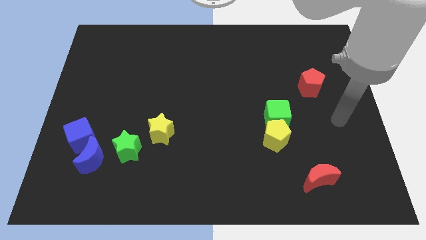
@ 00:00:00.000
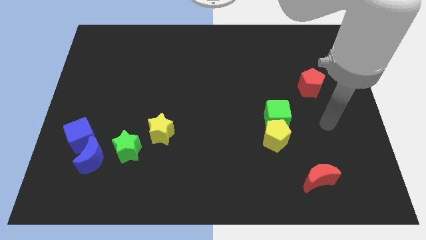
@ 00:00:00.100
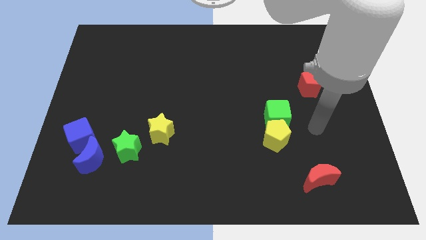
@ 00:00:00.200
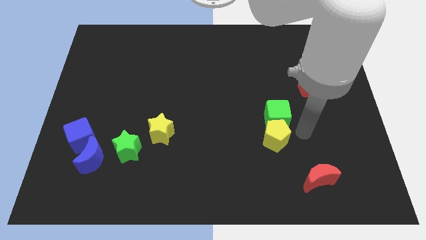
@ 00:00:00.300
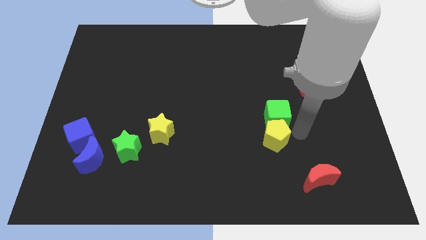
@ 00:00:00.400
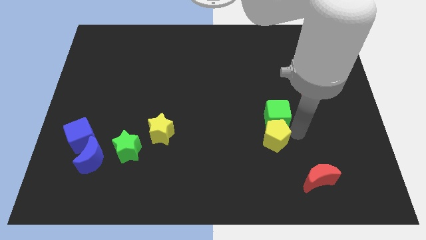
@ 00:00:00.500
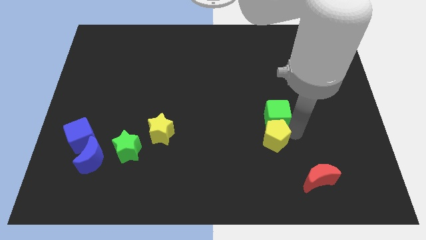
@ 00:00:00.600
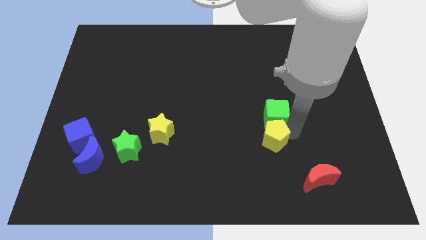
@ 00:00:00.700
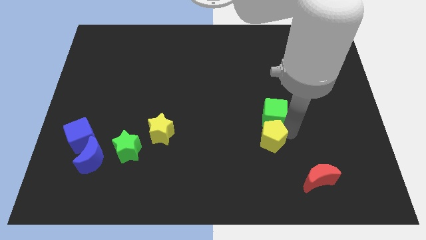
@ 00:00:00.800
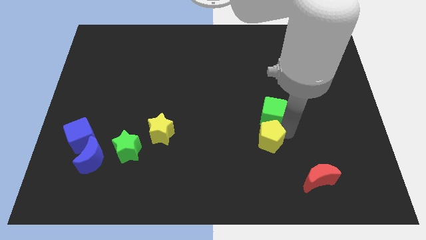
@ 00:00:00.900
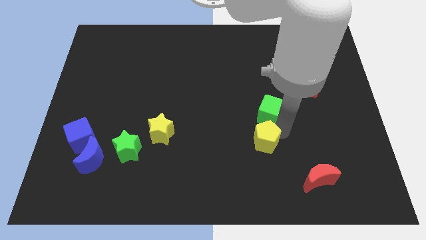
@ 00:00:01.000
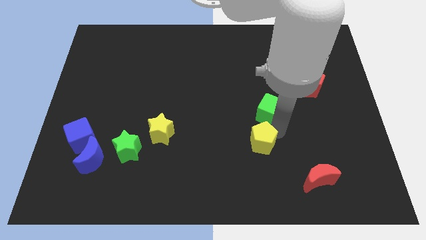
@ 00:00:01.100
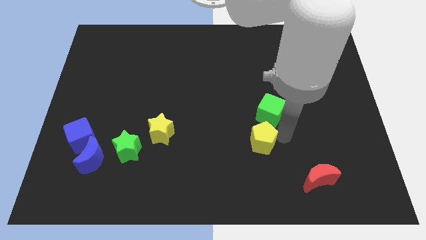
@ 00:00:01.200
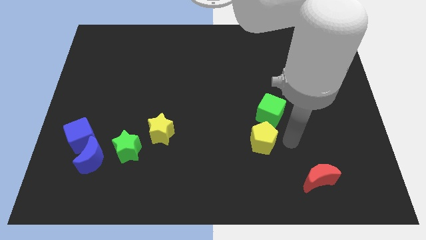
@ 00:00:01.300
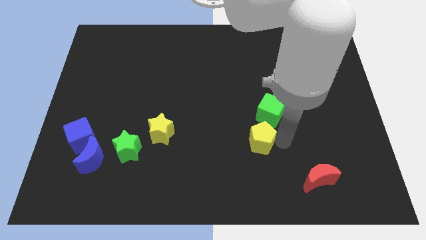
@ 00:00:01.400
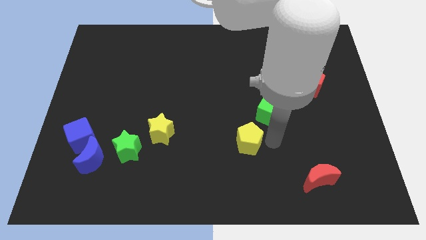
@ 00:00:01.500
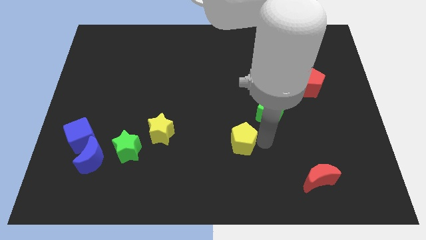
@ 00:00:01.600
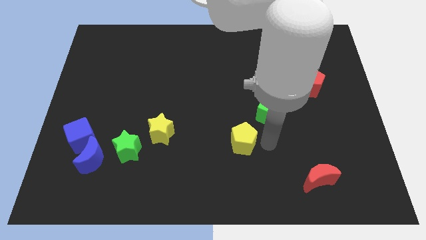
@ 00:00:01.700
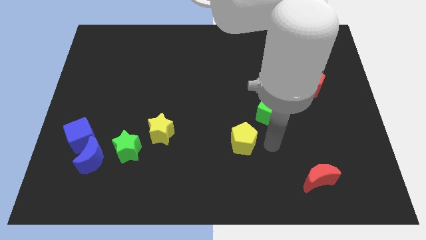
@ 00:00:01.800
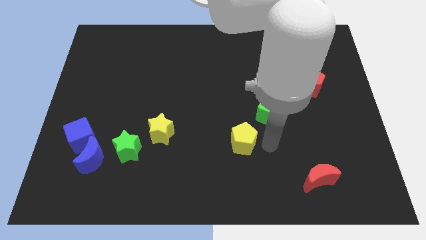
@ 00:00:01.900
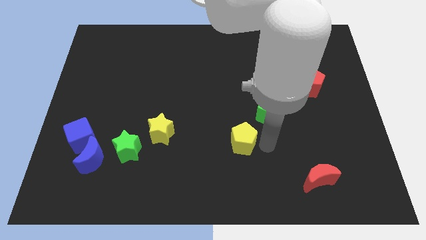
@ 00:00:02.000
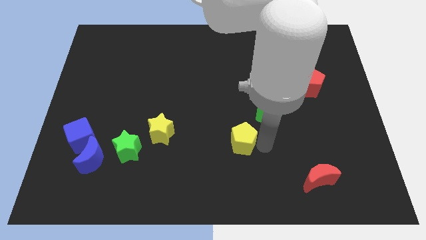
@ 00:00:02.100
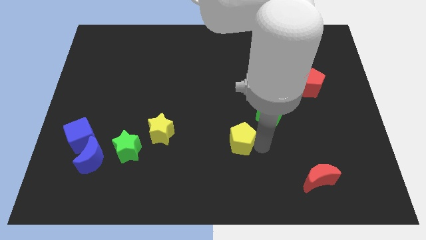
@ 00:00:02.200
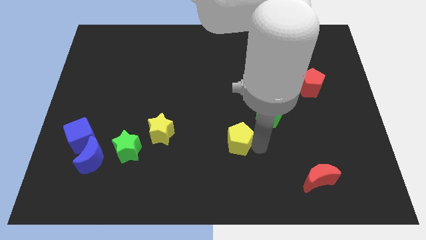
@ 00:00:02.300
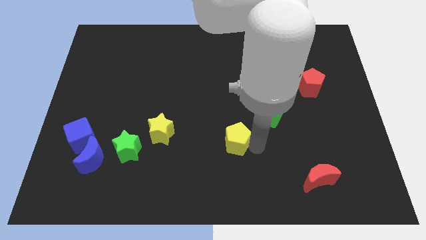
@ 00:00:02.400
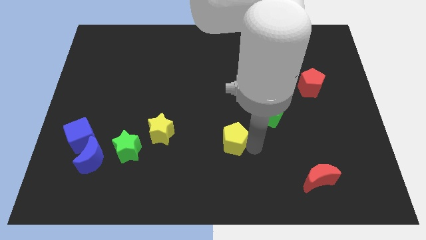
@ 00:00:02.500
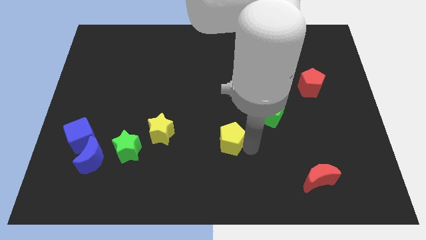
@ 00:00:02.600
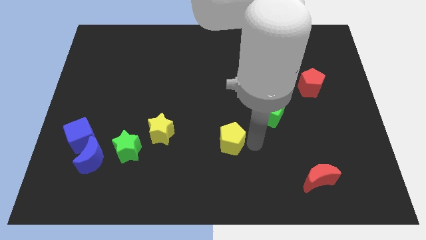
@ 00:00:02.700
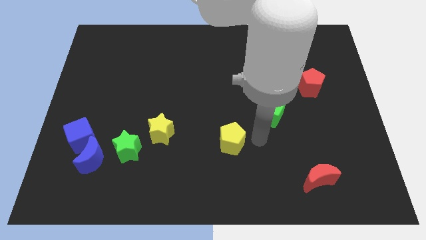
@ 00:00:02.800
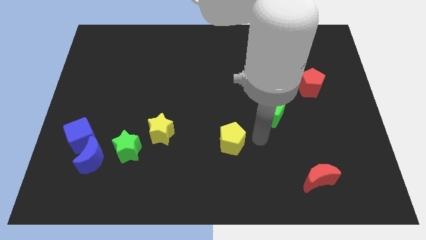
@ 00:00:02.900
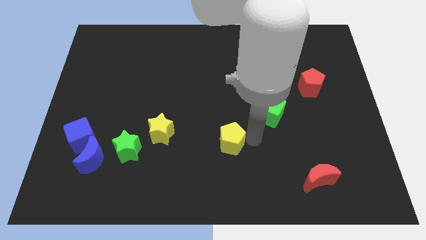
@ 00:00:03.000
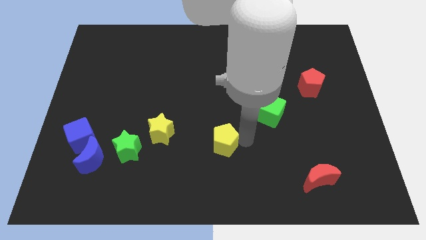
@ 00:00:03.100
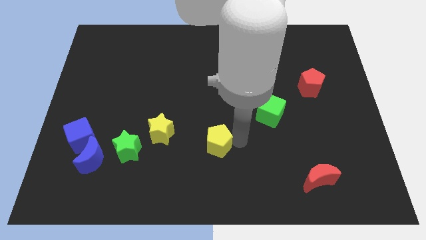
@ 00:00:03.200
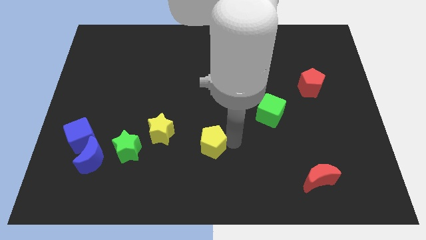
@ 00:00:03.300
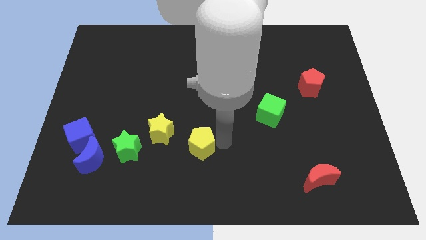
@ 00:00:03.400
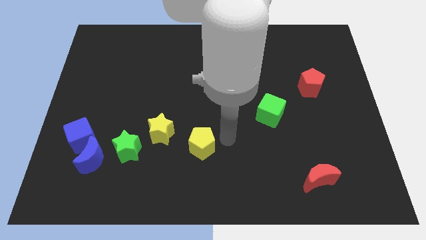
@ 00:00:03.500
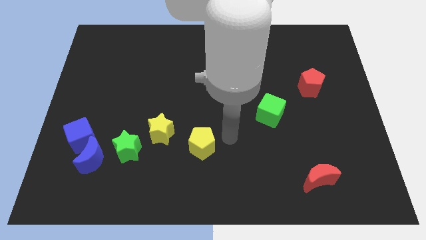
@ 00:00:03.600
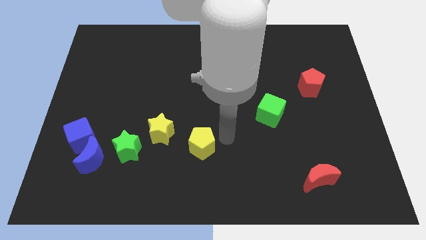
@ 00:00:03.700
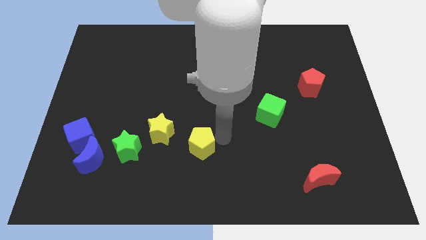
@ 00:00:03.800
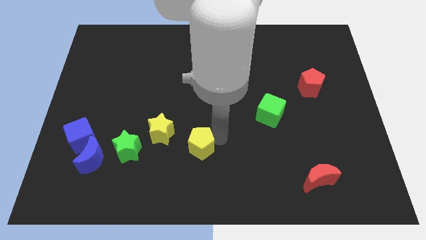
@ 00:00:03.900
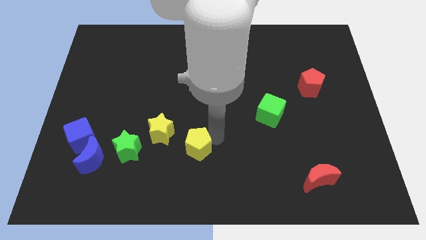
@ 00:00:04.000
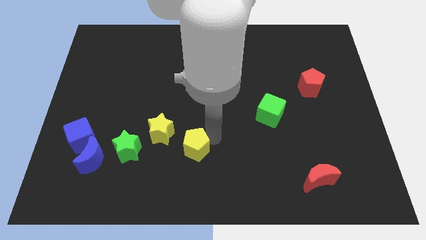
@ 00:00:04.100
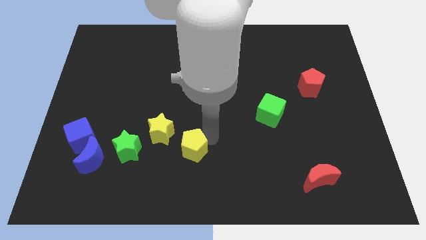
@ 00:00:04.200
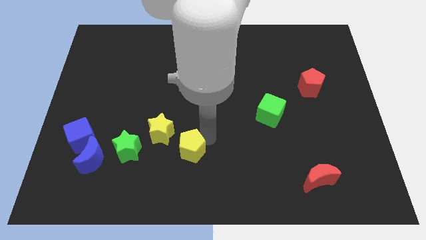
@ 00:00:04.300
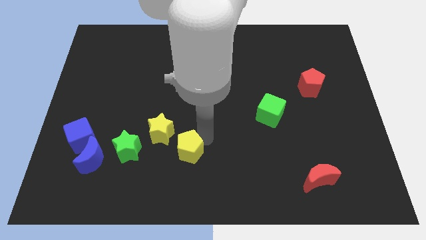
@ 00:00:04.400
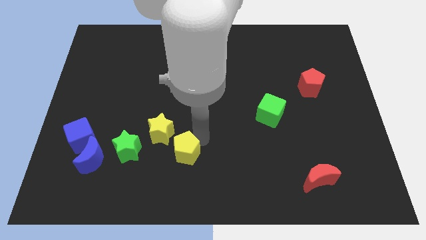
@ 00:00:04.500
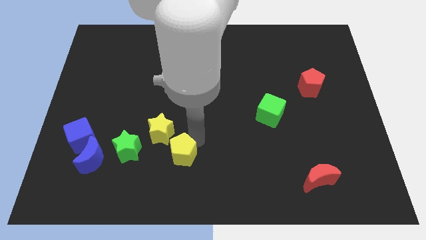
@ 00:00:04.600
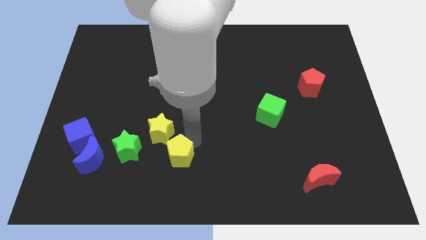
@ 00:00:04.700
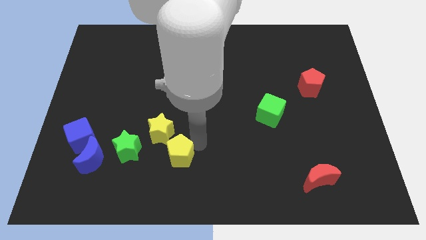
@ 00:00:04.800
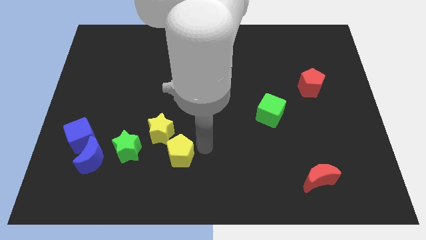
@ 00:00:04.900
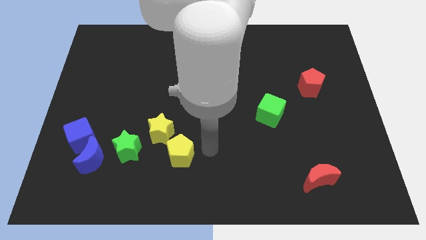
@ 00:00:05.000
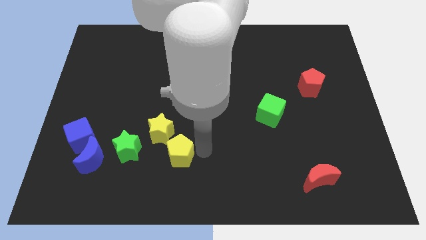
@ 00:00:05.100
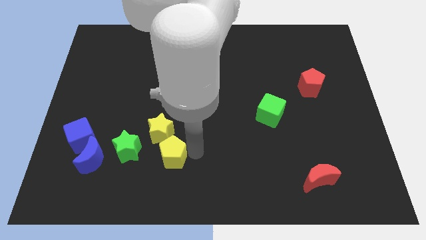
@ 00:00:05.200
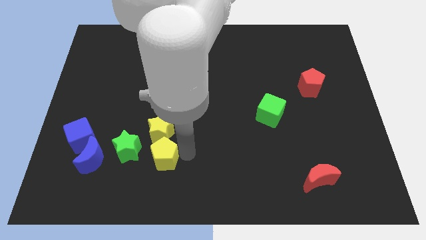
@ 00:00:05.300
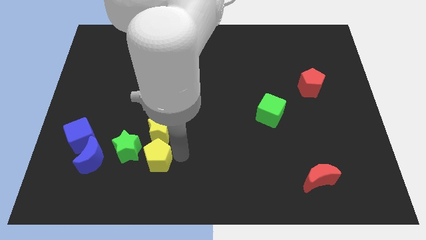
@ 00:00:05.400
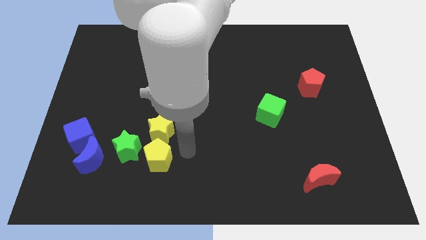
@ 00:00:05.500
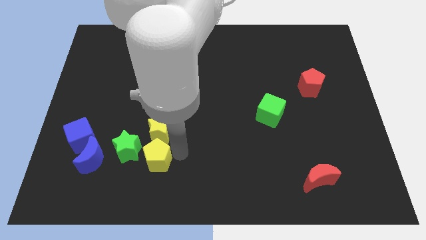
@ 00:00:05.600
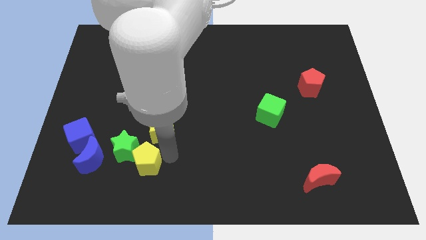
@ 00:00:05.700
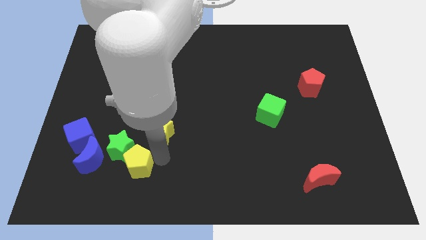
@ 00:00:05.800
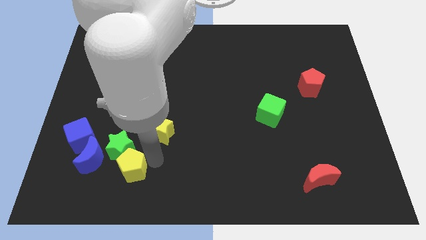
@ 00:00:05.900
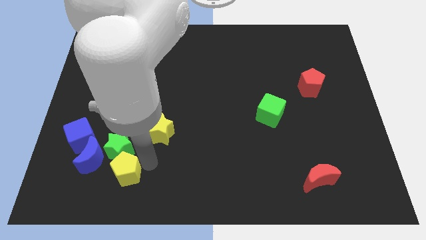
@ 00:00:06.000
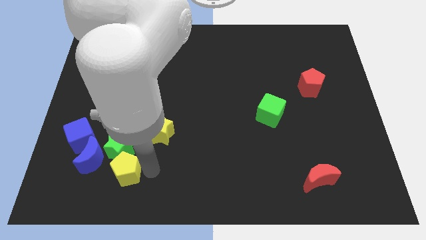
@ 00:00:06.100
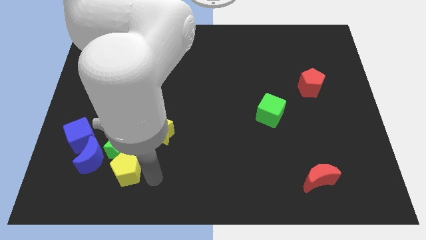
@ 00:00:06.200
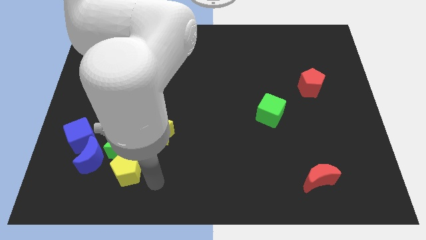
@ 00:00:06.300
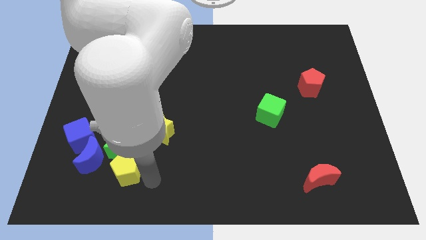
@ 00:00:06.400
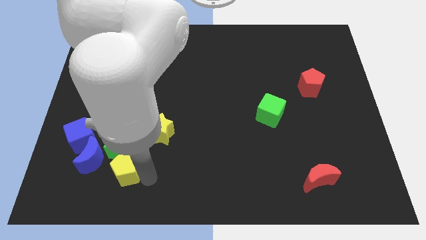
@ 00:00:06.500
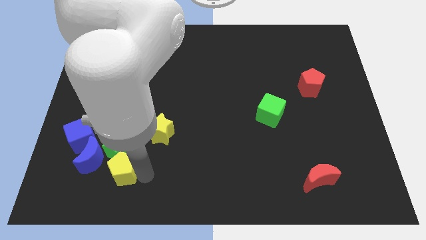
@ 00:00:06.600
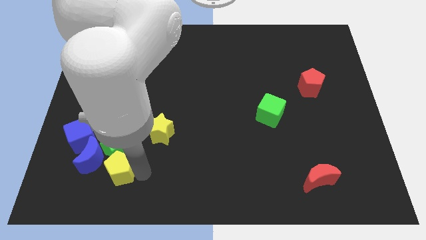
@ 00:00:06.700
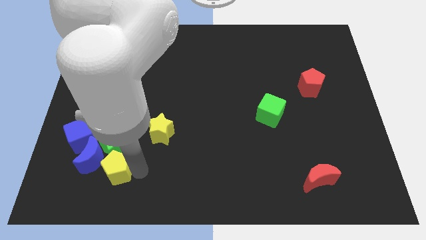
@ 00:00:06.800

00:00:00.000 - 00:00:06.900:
move the yellow pentagon towards the blue moon
